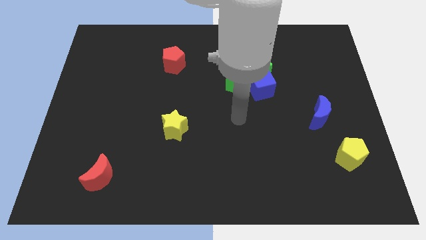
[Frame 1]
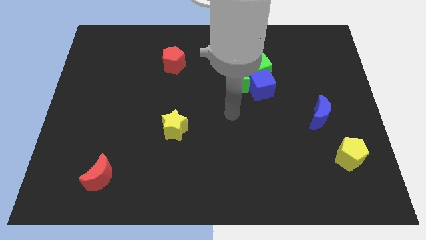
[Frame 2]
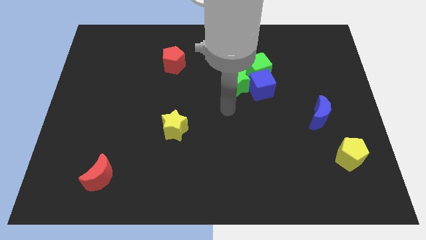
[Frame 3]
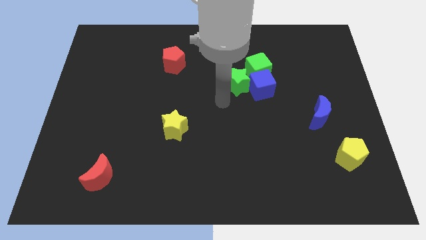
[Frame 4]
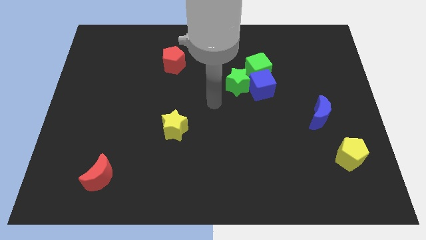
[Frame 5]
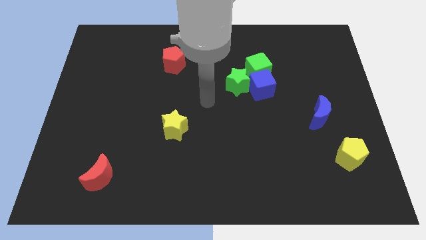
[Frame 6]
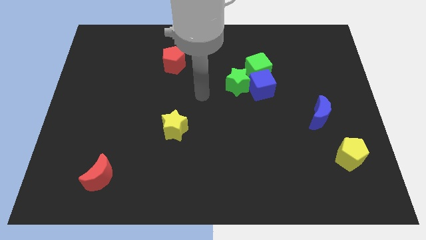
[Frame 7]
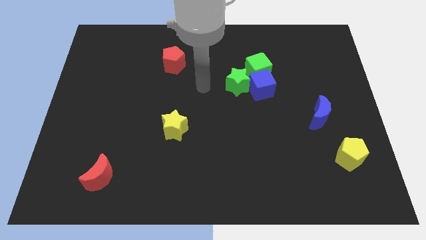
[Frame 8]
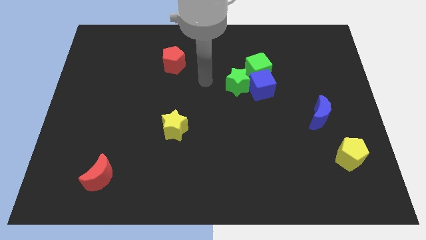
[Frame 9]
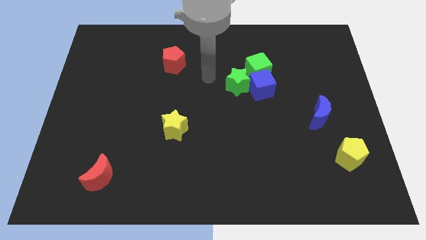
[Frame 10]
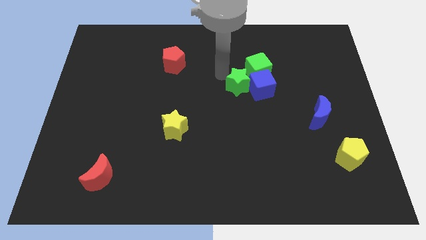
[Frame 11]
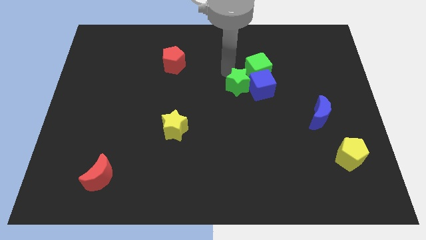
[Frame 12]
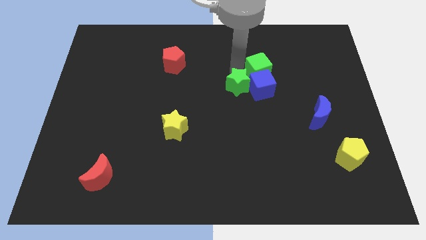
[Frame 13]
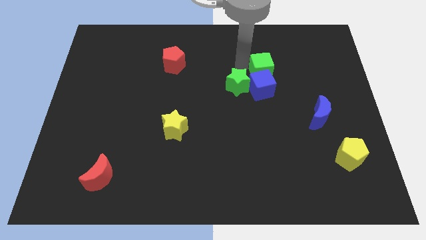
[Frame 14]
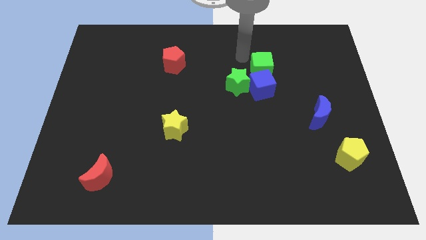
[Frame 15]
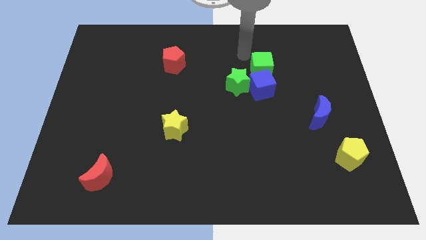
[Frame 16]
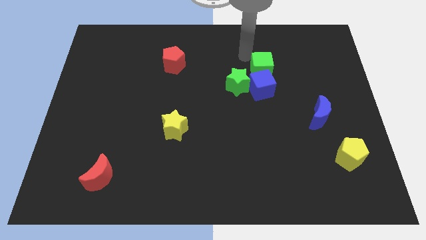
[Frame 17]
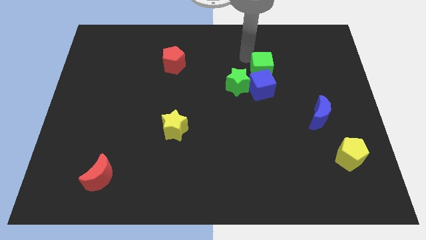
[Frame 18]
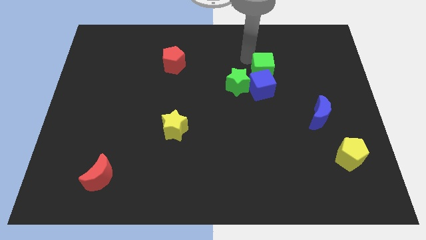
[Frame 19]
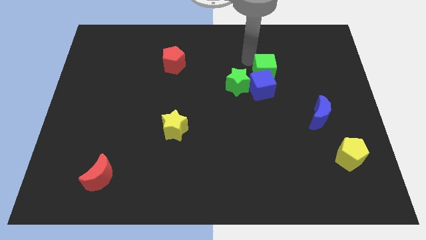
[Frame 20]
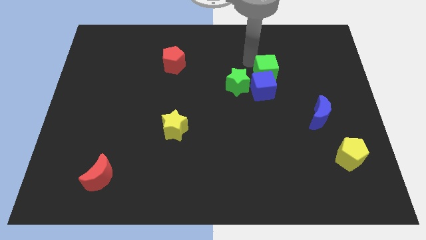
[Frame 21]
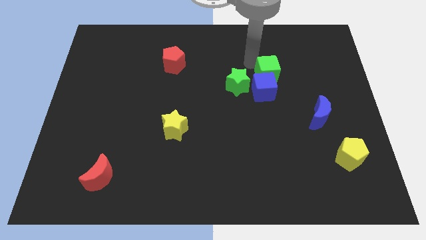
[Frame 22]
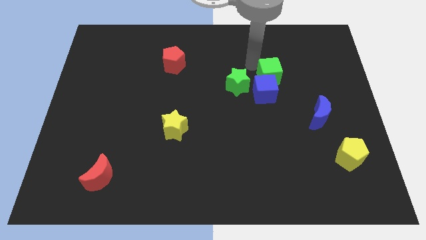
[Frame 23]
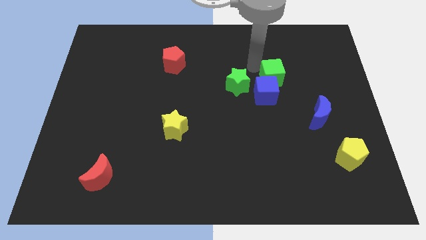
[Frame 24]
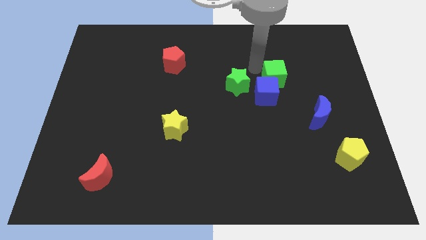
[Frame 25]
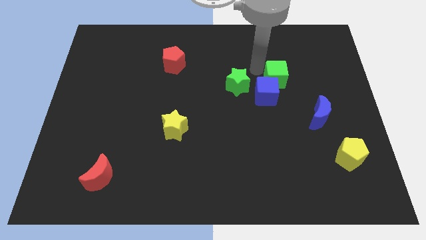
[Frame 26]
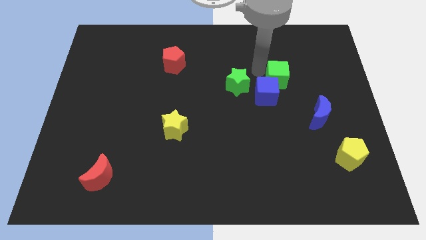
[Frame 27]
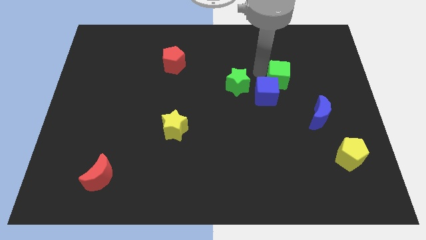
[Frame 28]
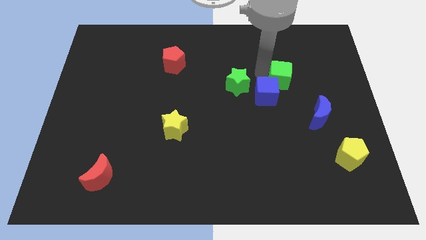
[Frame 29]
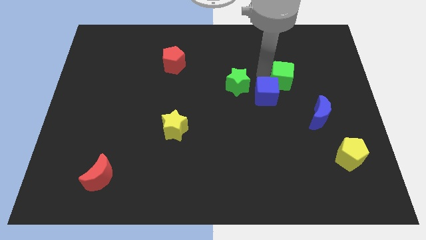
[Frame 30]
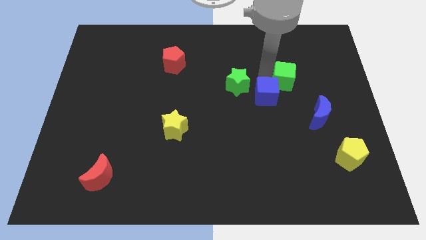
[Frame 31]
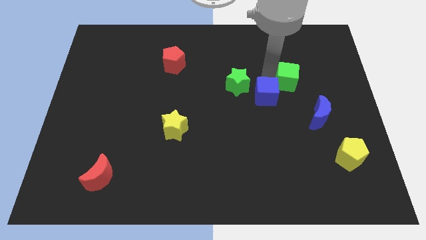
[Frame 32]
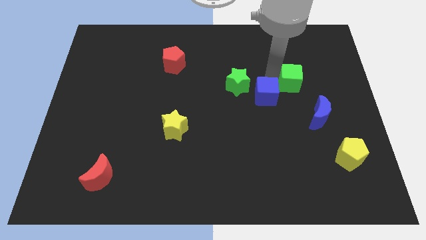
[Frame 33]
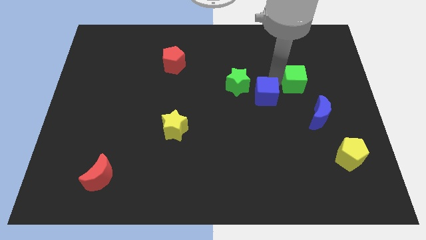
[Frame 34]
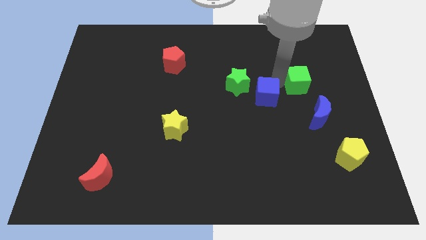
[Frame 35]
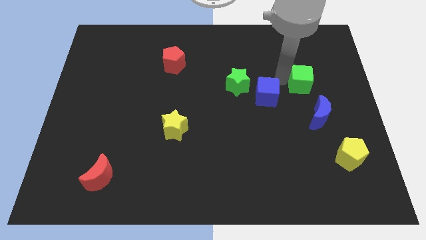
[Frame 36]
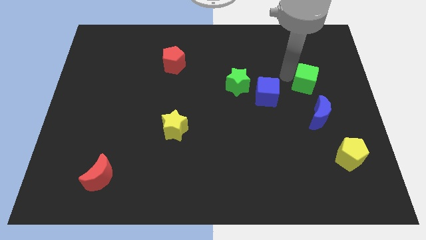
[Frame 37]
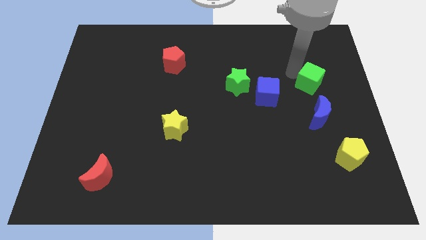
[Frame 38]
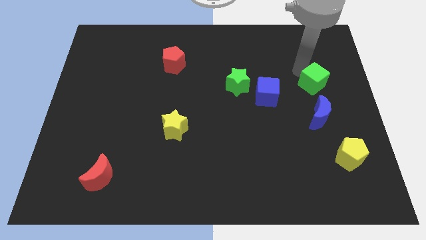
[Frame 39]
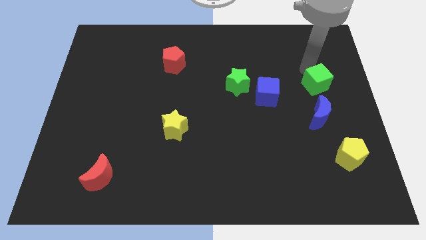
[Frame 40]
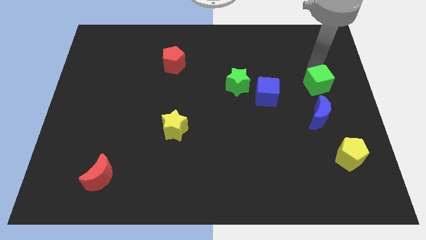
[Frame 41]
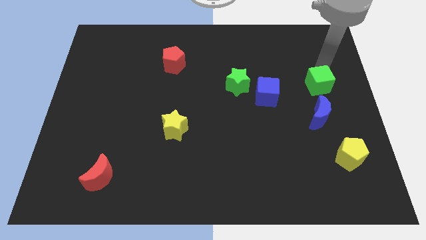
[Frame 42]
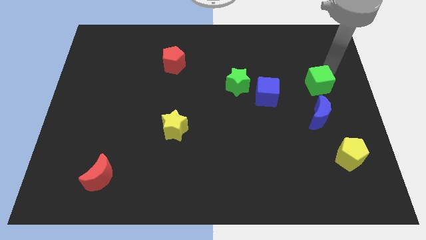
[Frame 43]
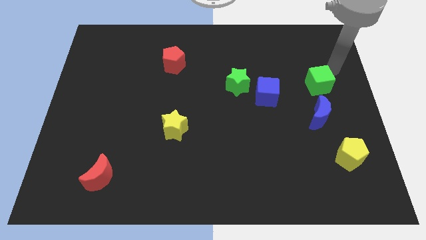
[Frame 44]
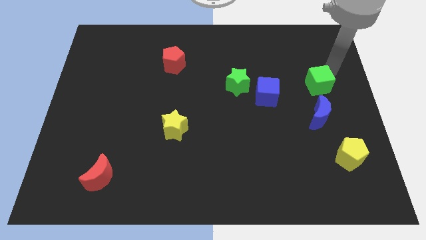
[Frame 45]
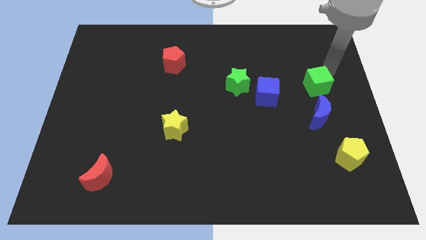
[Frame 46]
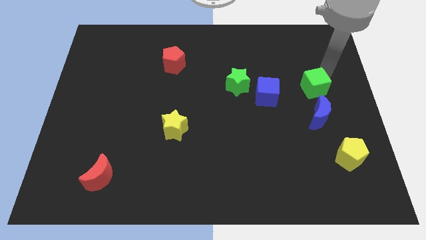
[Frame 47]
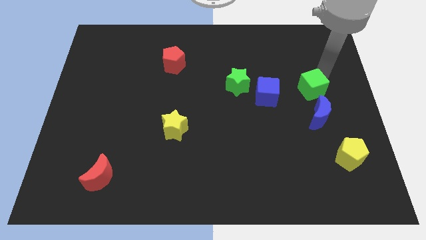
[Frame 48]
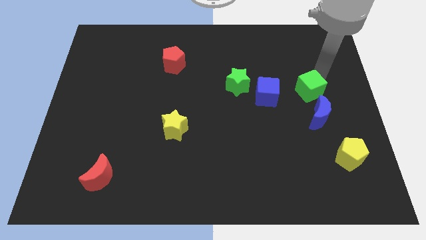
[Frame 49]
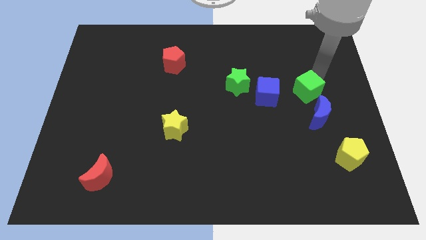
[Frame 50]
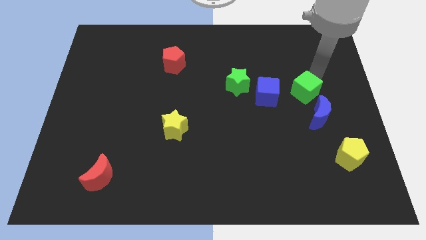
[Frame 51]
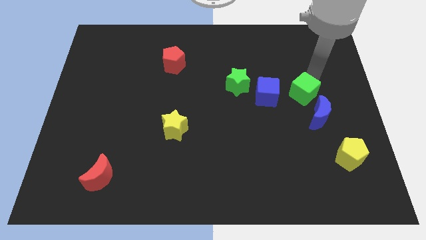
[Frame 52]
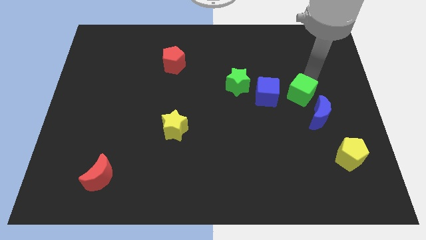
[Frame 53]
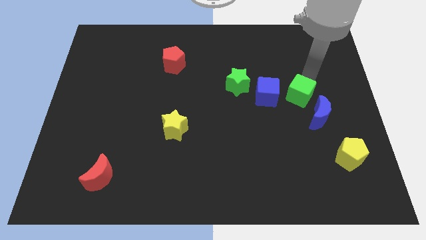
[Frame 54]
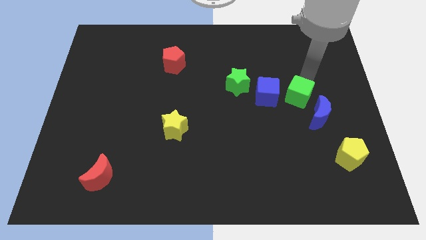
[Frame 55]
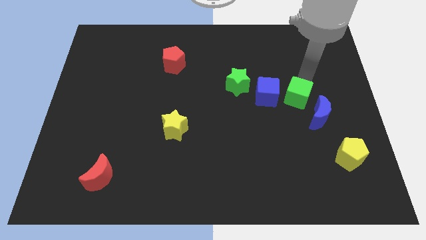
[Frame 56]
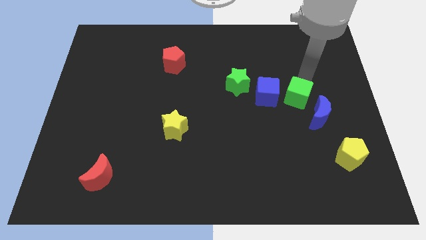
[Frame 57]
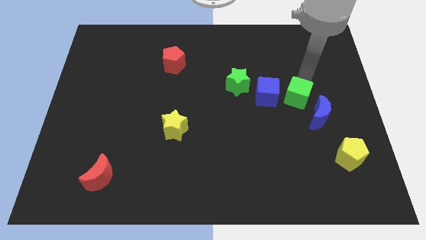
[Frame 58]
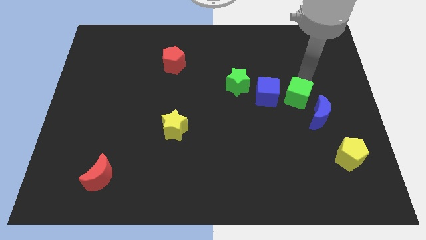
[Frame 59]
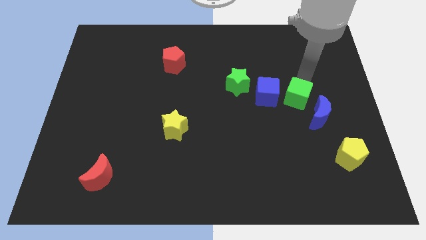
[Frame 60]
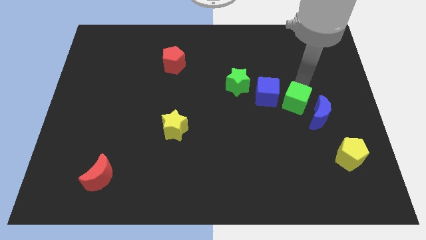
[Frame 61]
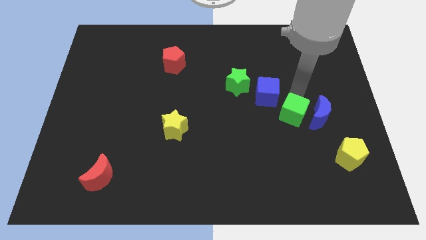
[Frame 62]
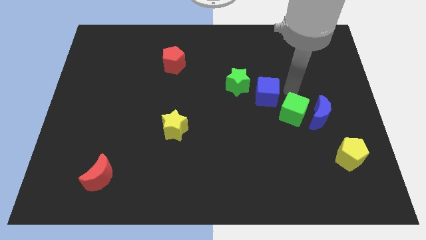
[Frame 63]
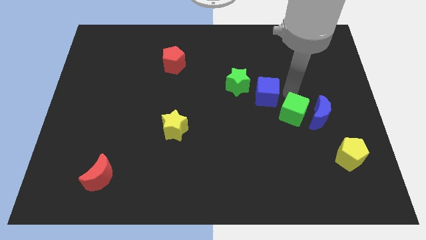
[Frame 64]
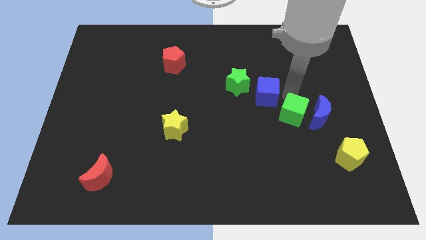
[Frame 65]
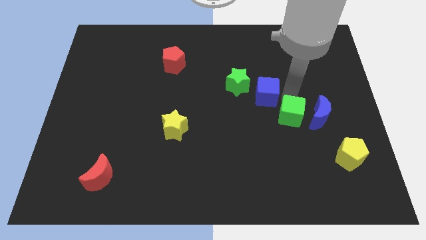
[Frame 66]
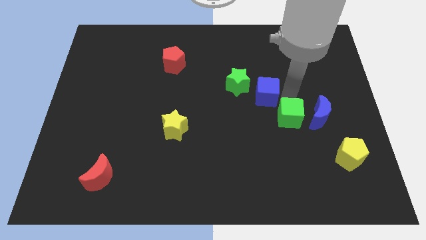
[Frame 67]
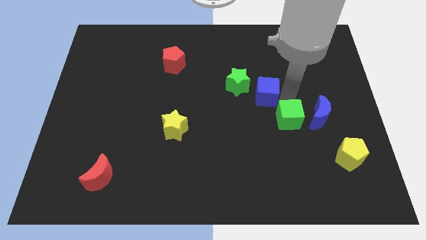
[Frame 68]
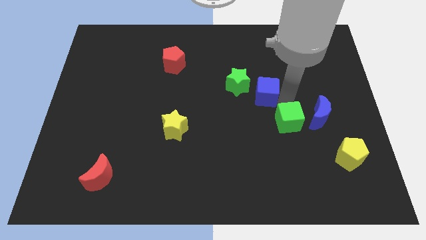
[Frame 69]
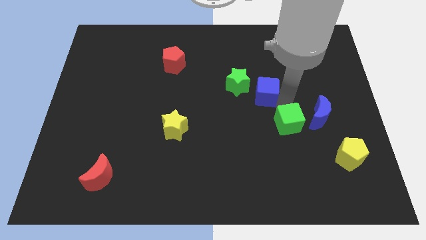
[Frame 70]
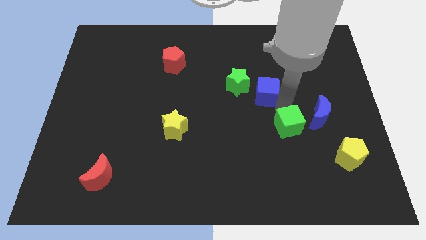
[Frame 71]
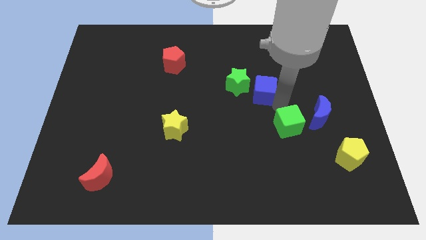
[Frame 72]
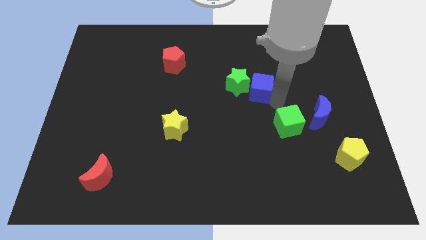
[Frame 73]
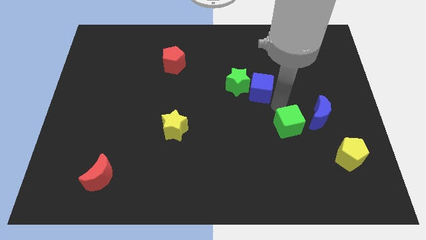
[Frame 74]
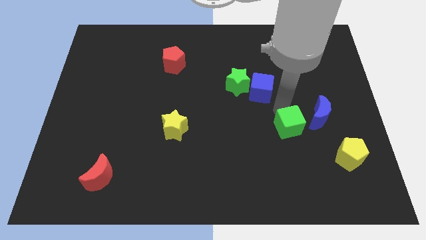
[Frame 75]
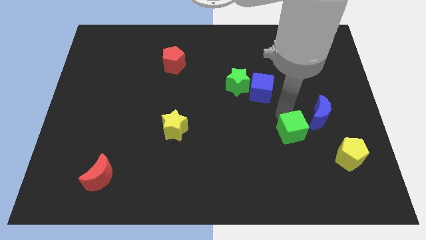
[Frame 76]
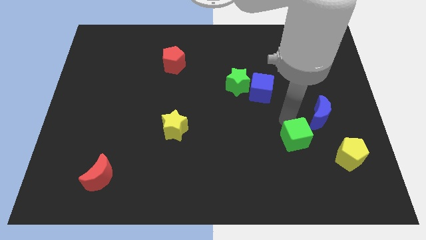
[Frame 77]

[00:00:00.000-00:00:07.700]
put the green cube just left of the yellow pentagon
